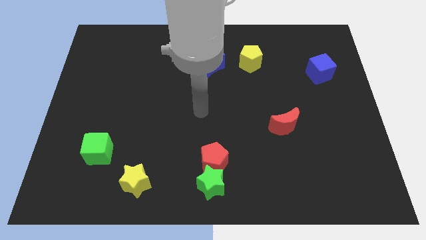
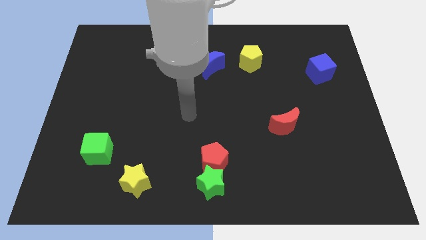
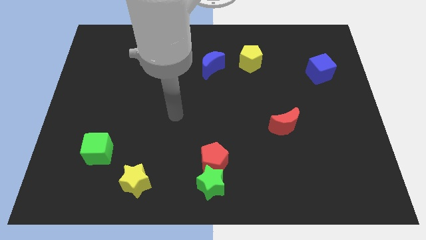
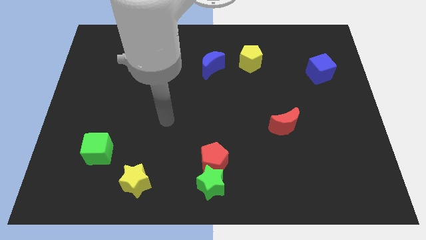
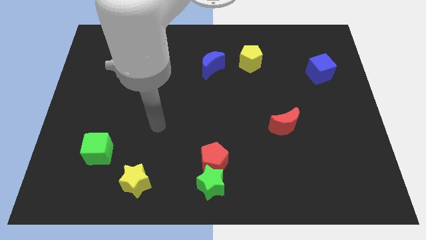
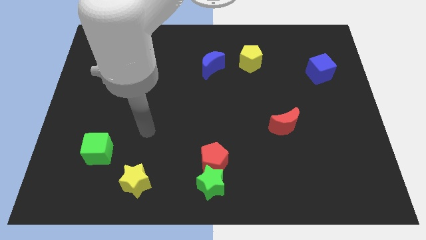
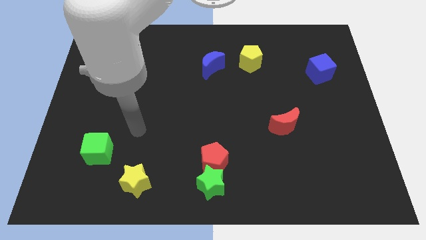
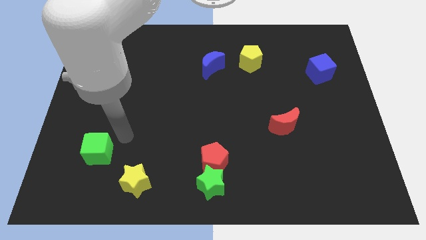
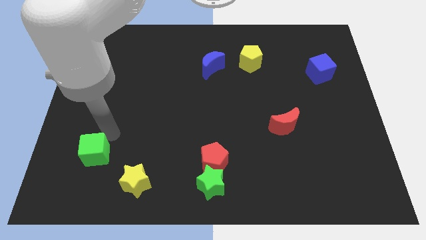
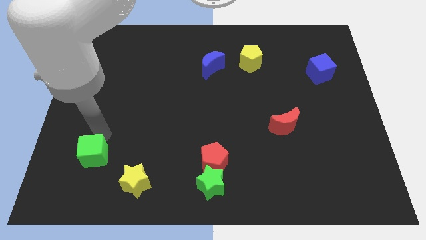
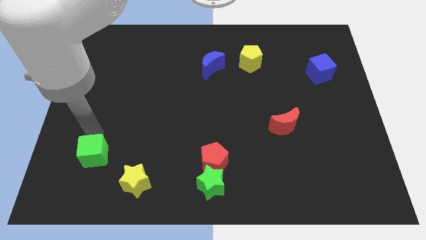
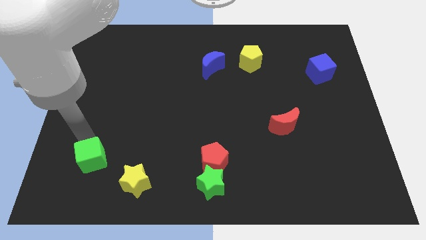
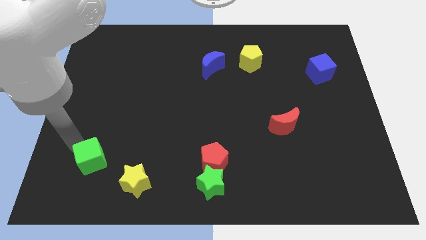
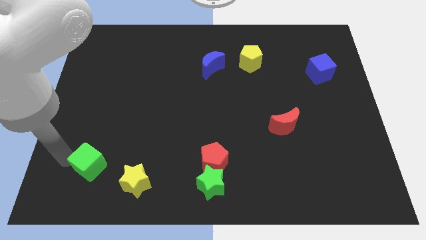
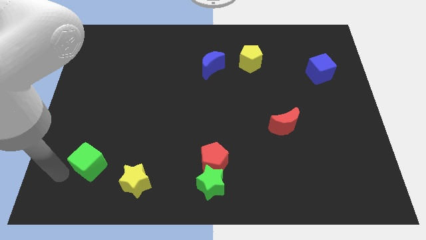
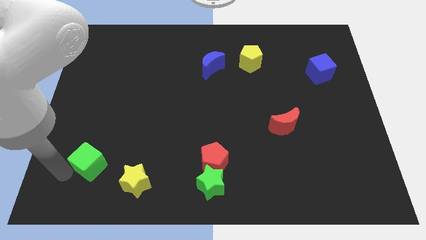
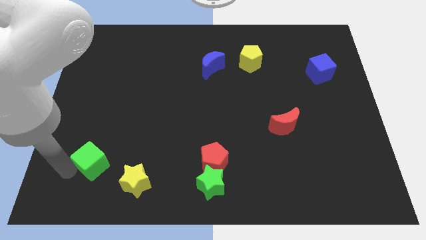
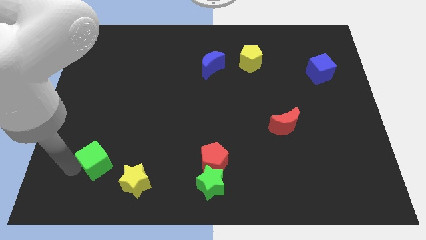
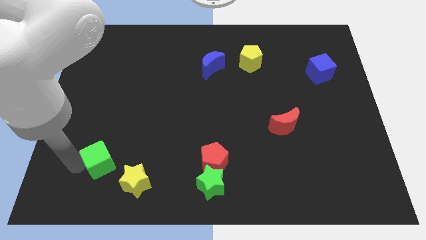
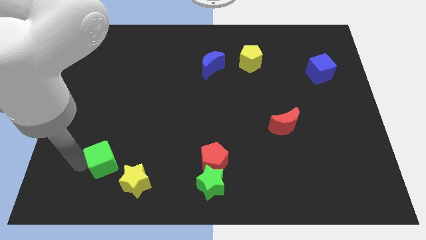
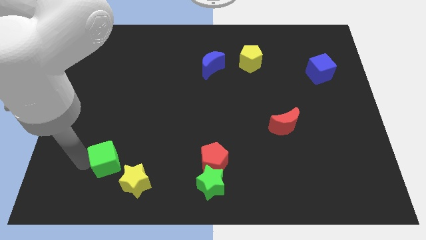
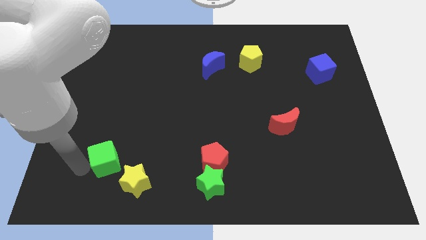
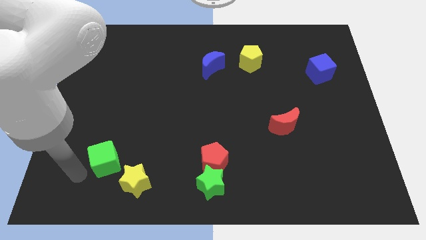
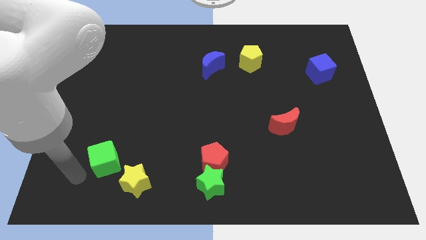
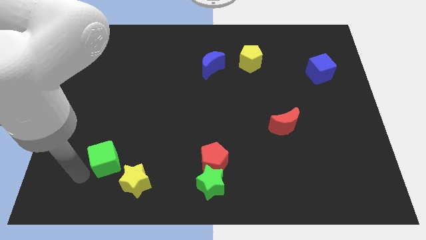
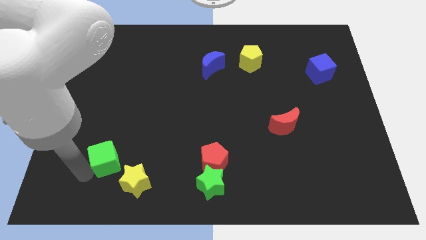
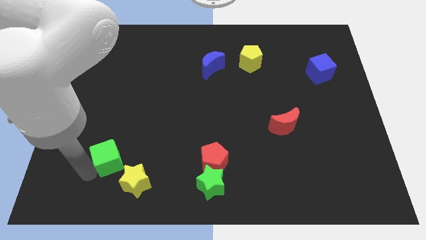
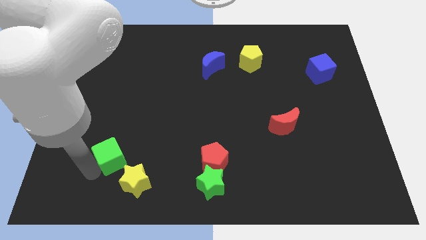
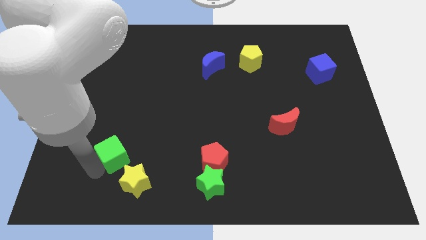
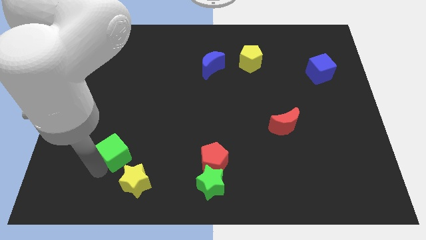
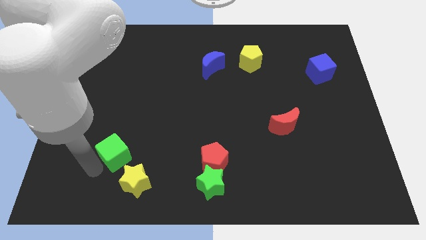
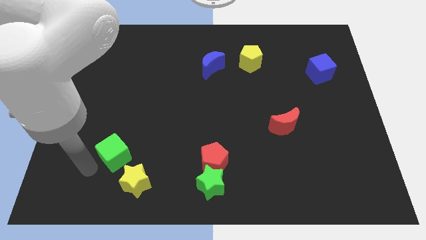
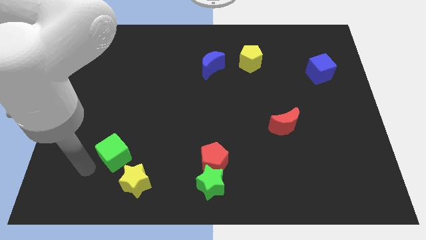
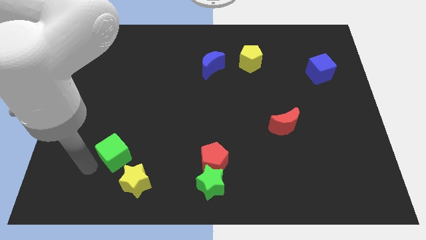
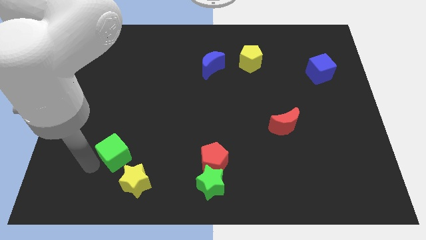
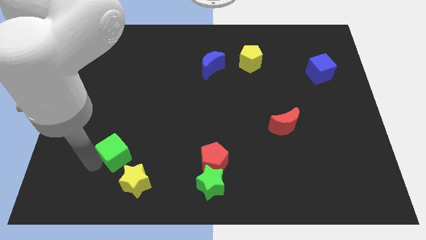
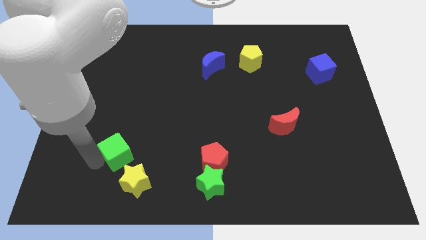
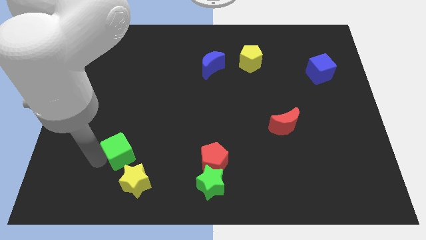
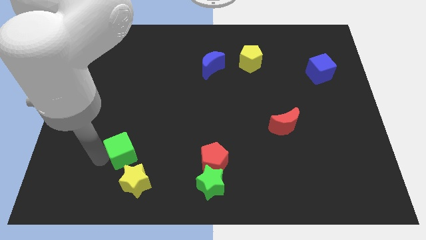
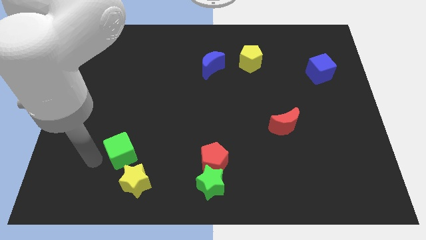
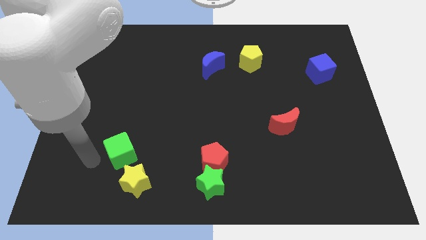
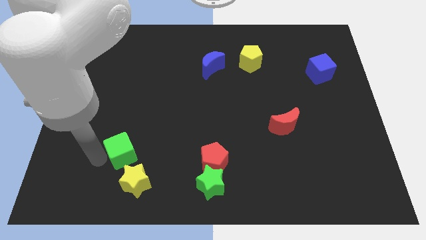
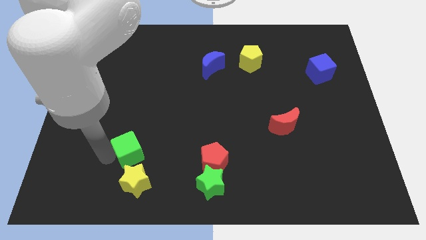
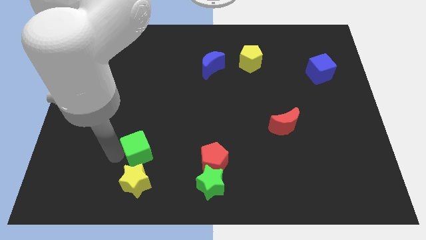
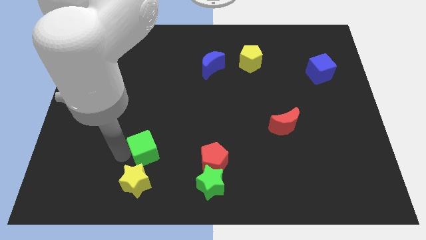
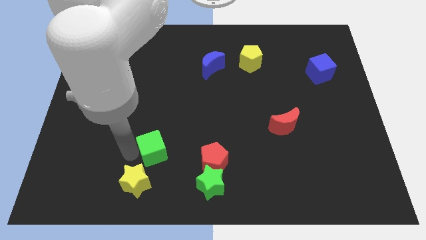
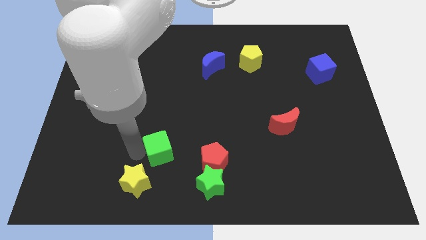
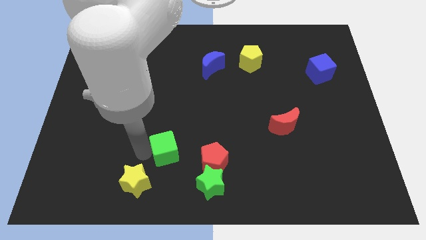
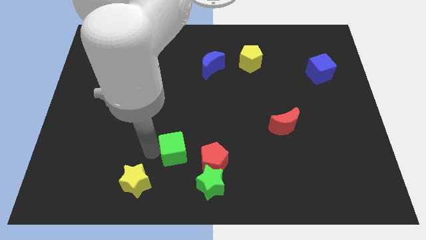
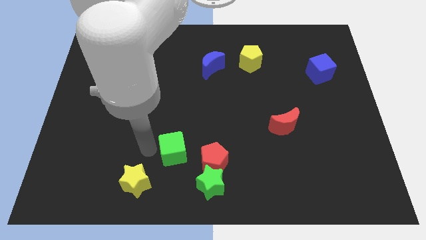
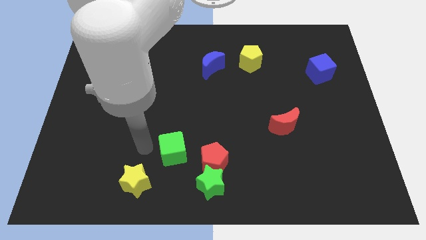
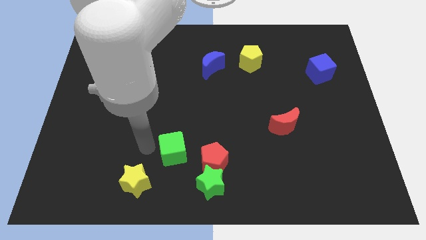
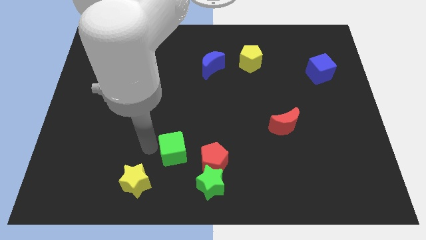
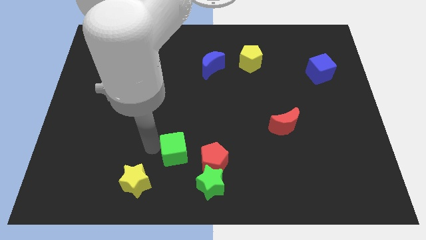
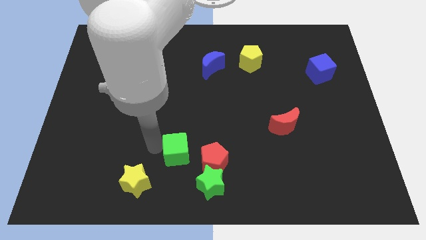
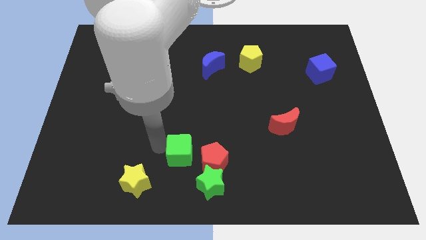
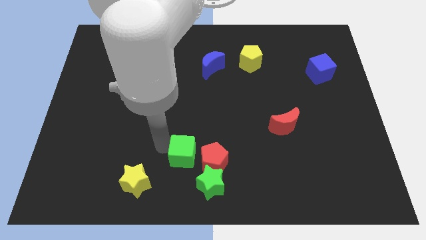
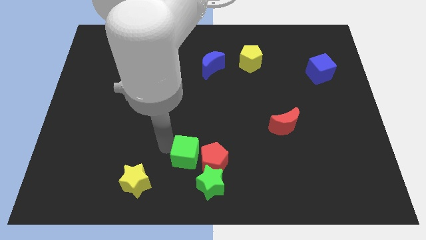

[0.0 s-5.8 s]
push the green cube to the red pentagon
